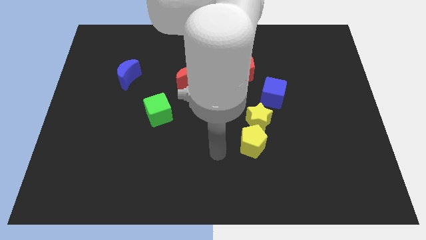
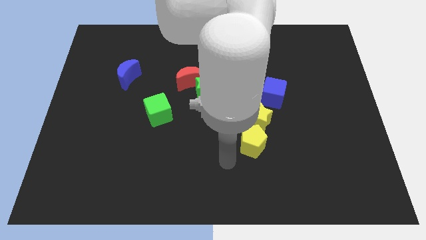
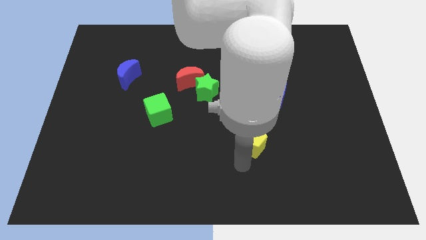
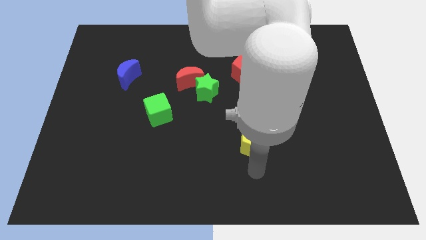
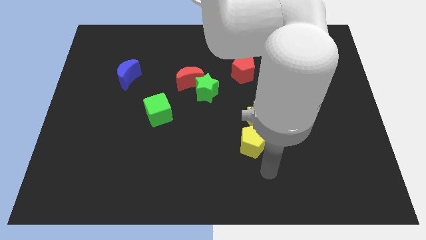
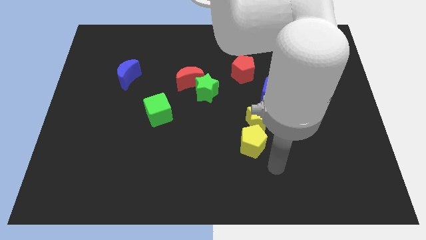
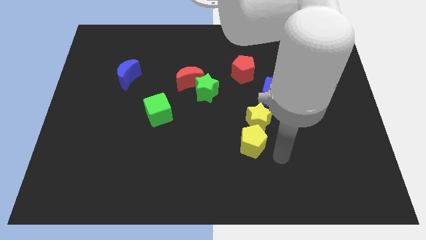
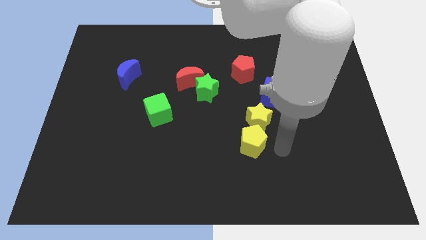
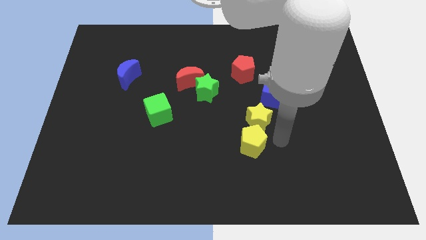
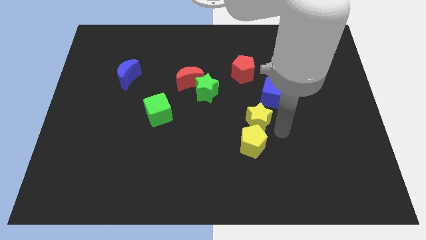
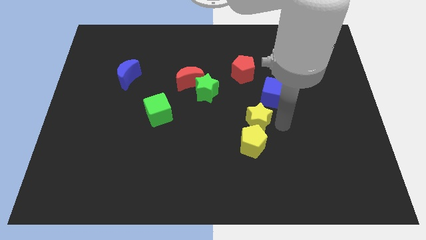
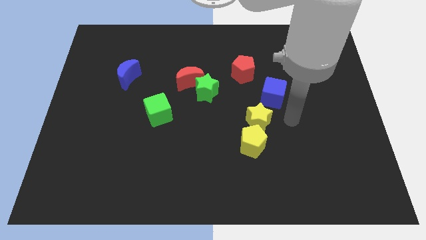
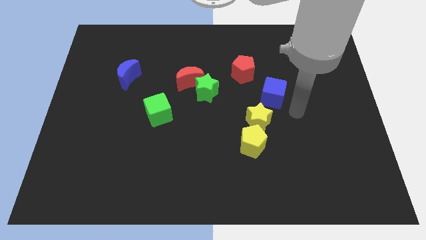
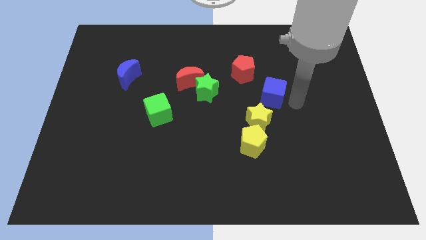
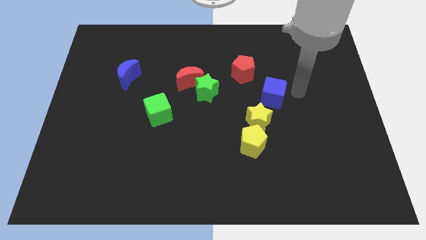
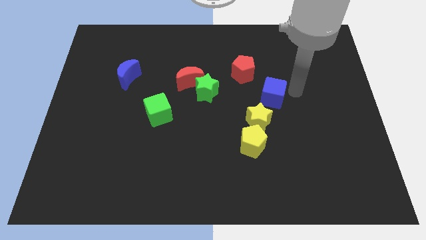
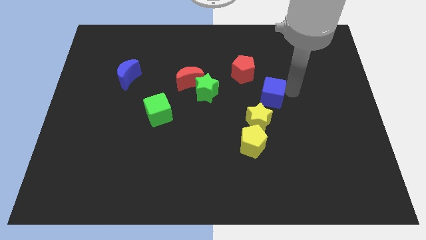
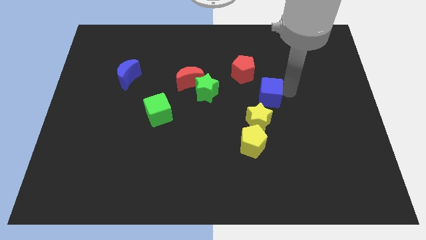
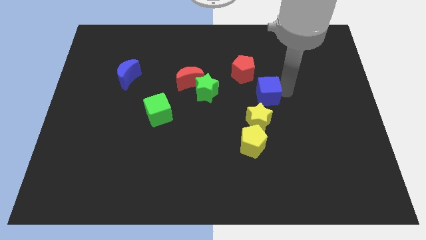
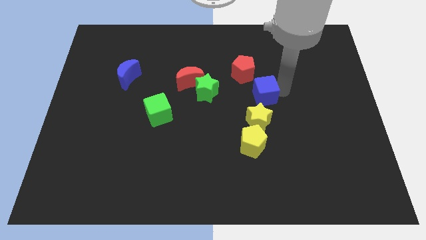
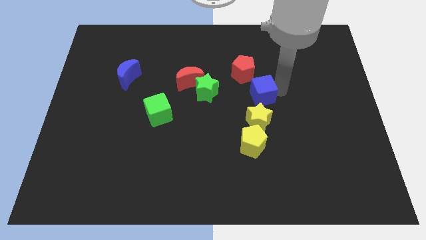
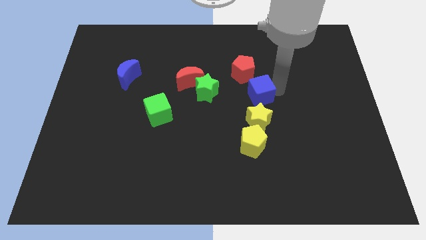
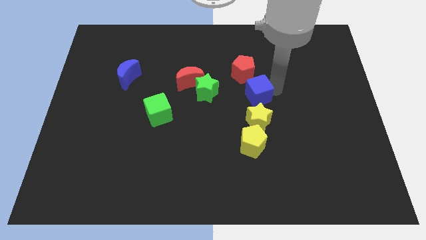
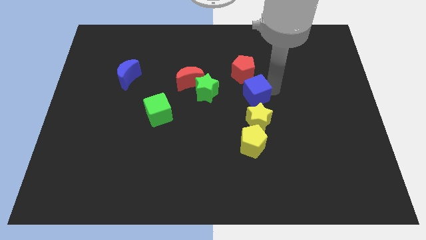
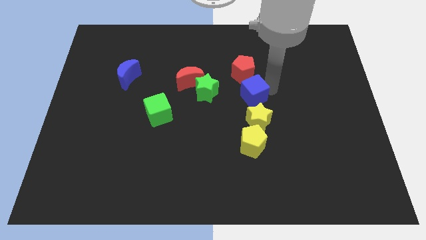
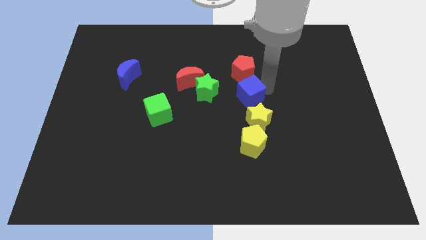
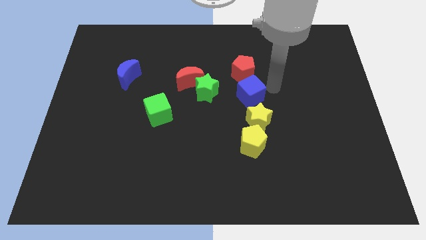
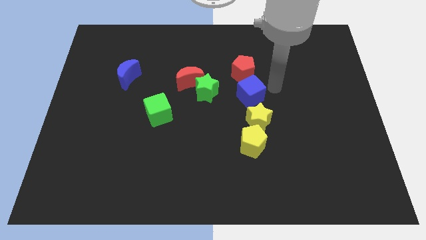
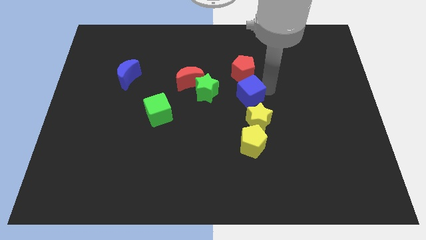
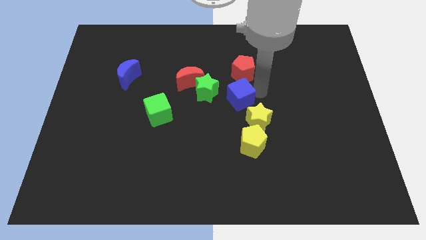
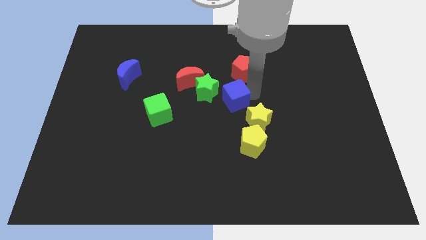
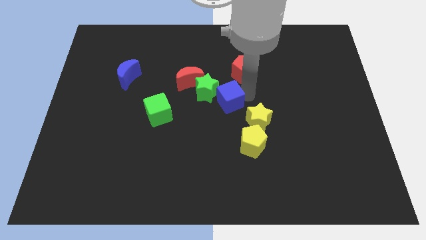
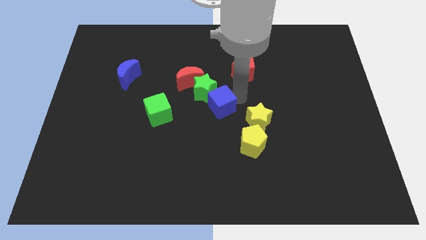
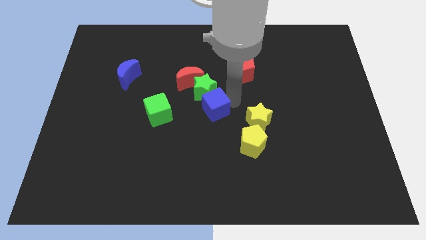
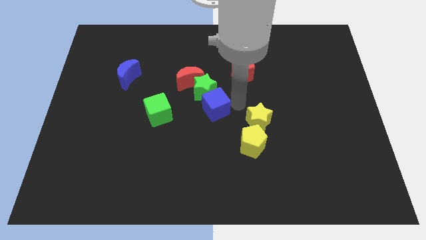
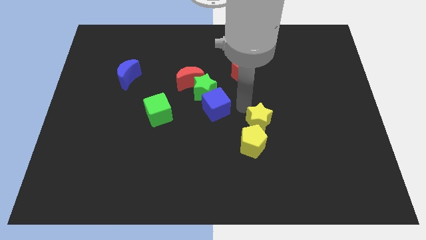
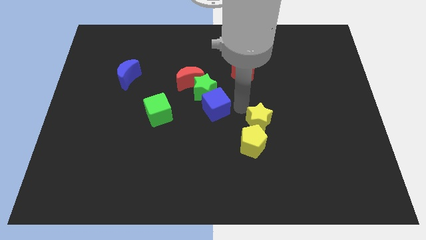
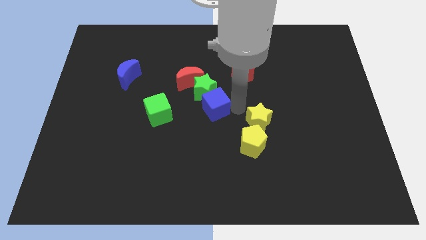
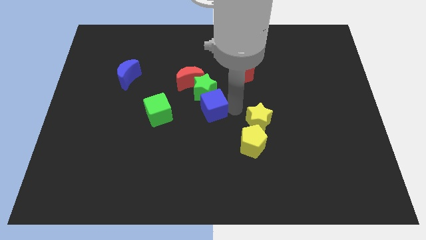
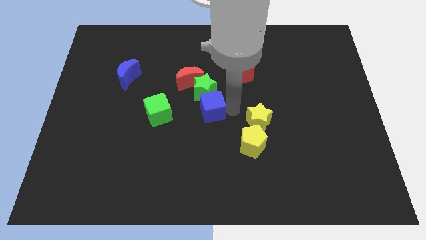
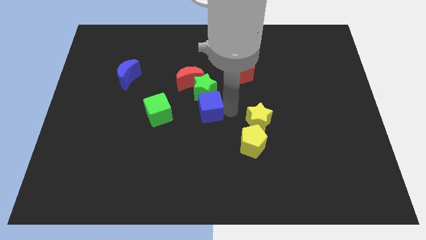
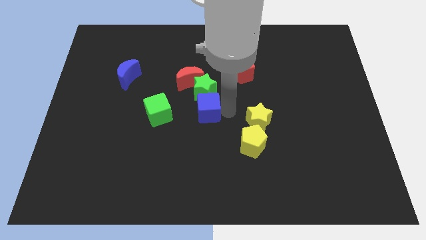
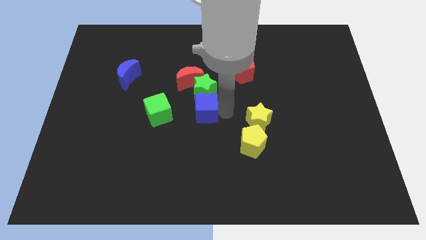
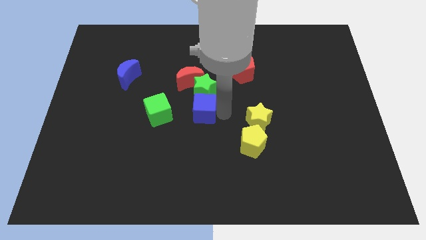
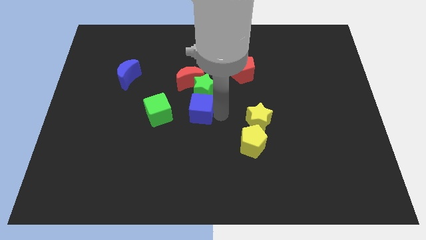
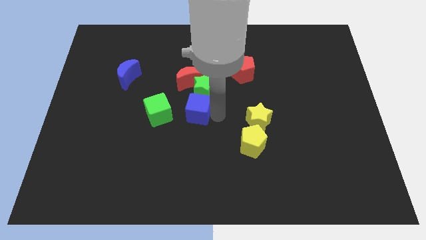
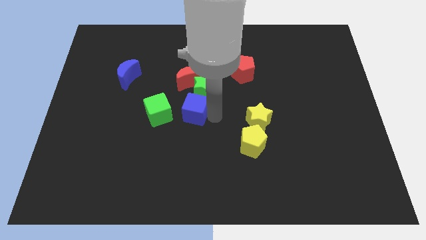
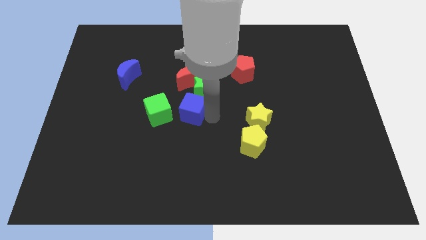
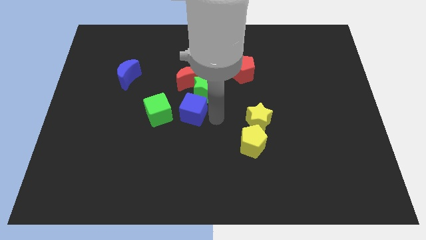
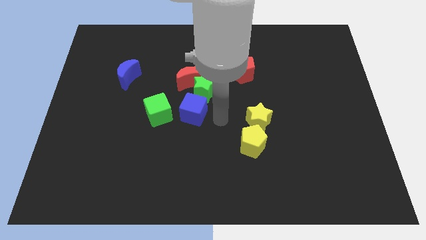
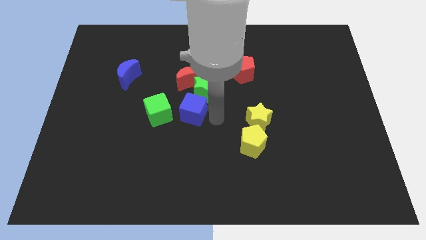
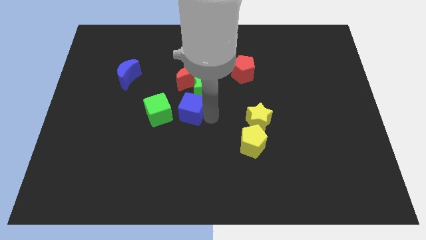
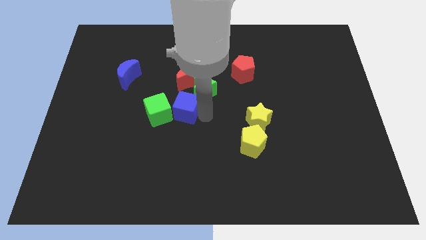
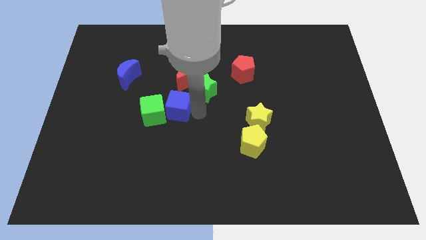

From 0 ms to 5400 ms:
move the blue cube towards the green cube

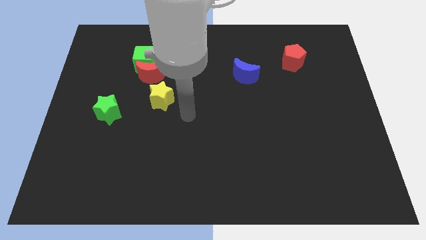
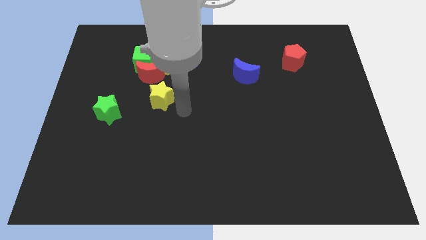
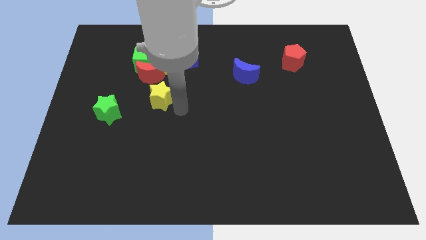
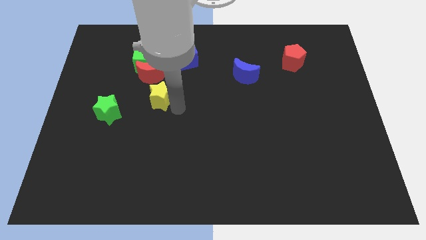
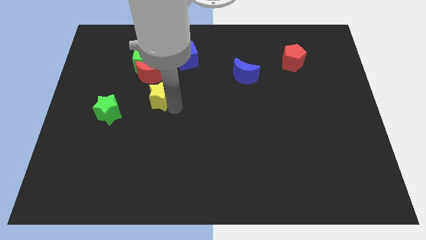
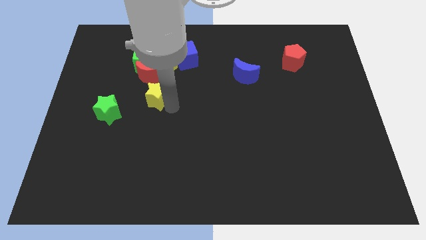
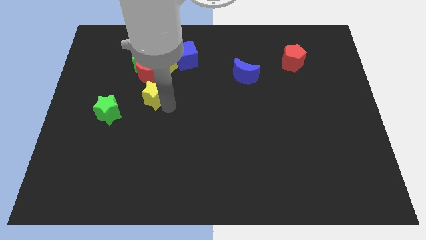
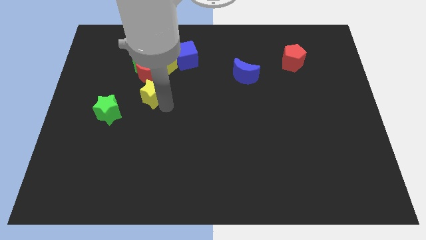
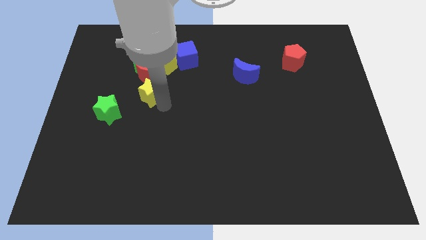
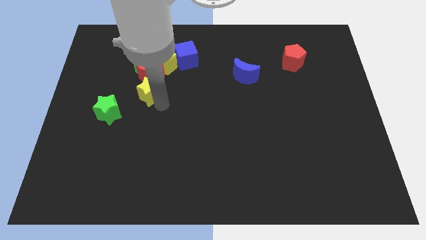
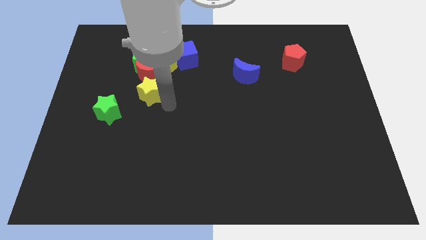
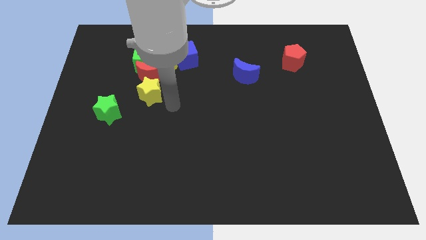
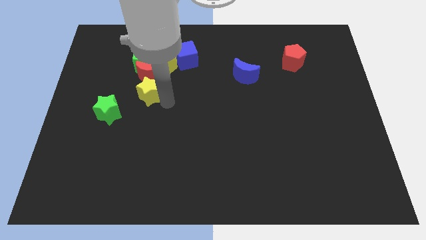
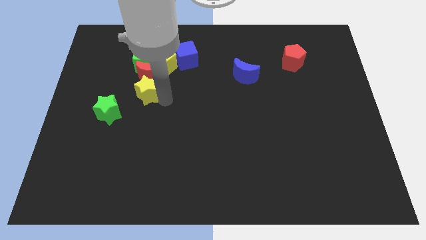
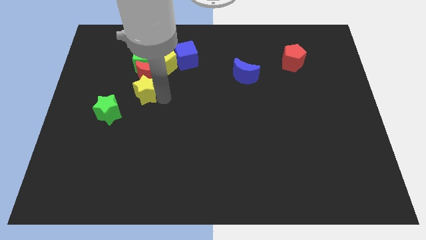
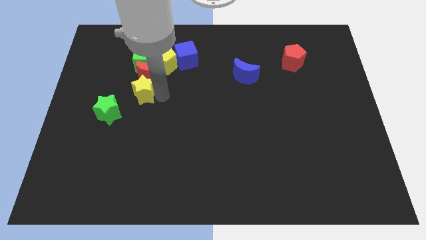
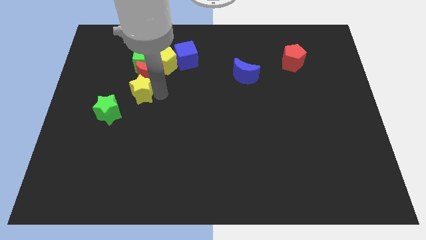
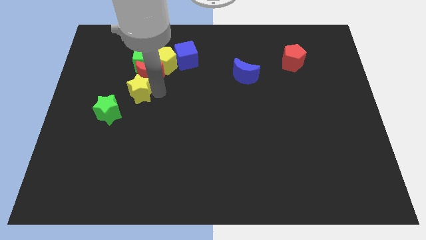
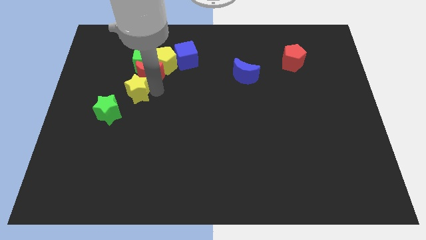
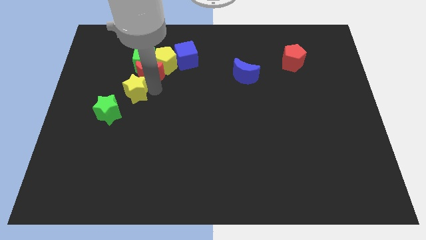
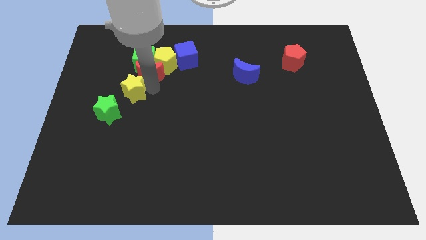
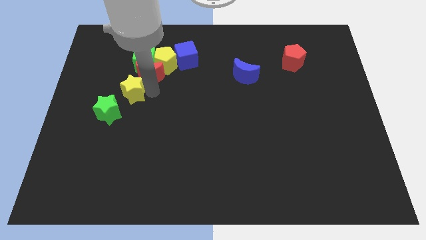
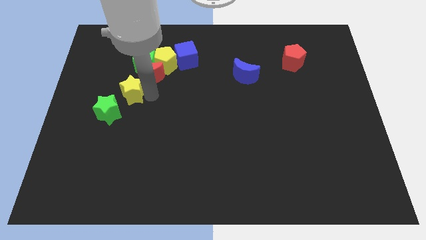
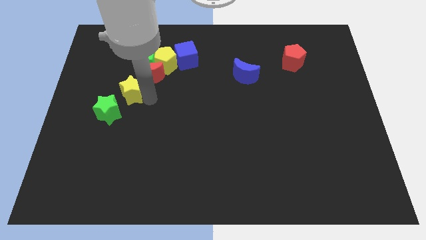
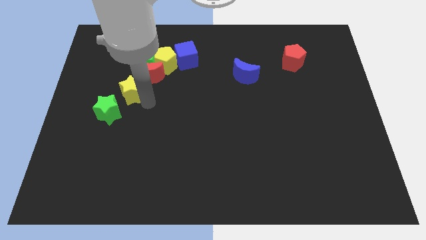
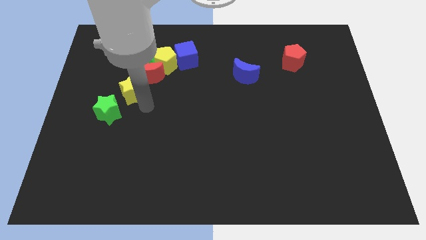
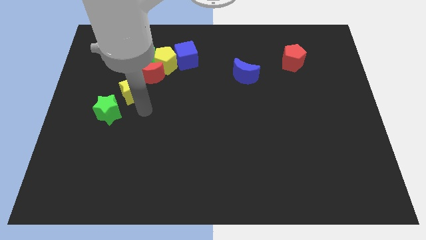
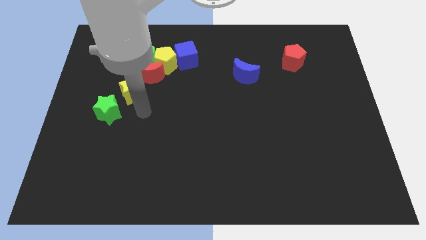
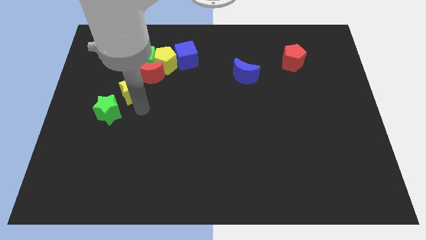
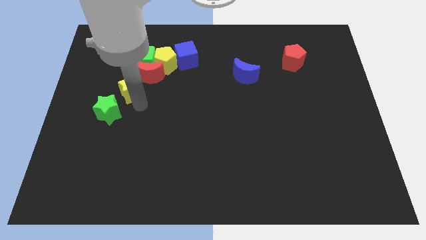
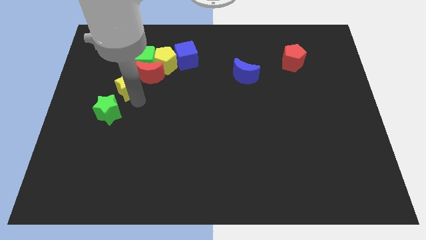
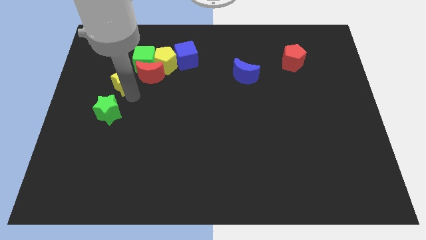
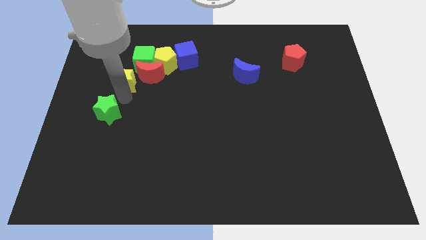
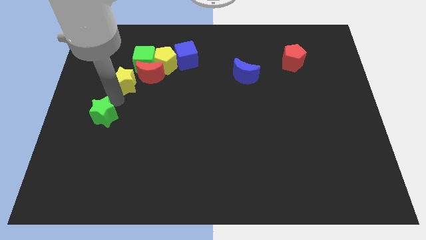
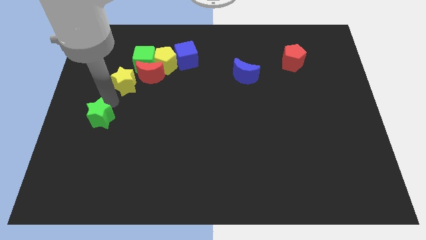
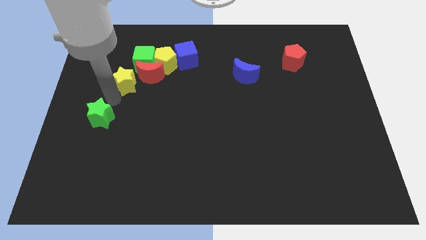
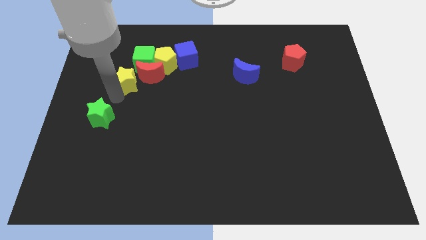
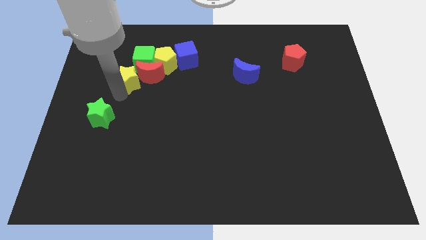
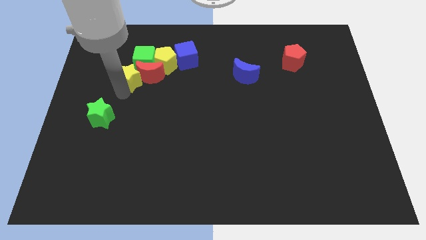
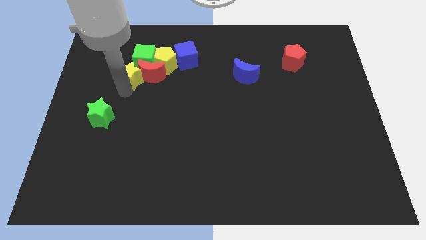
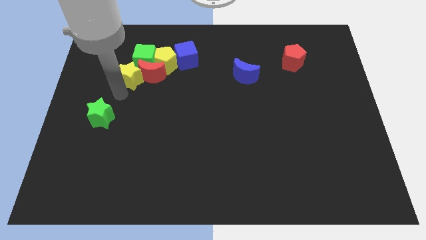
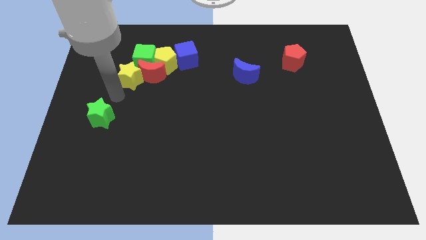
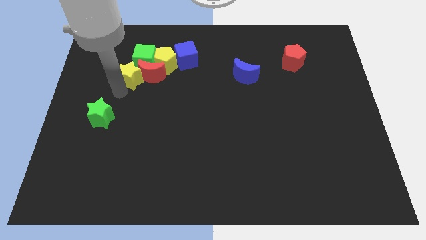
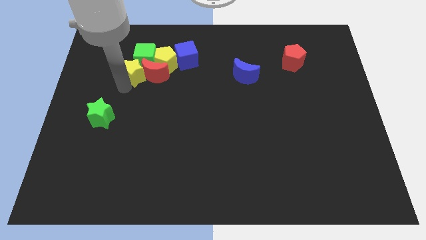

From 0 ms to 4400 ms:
push the yellow star to the green cube
